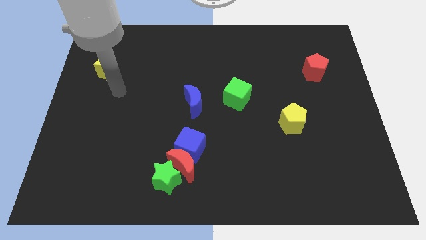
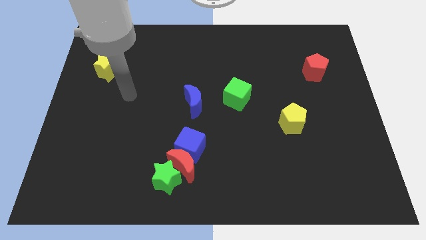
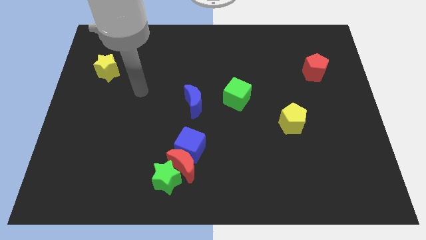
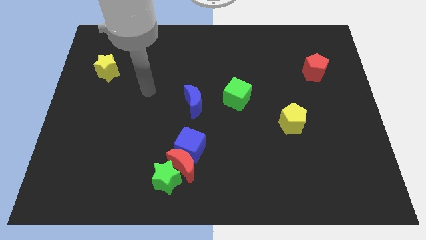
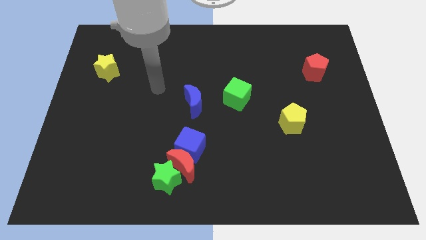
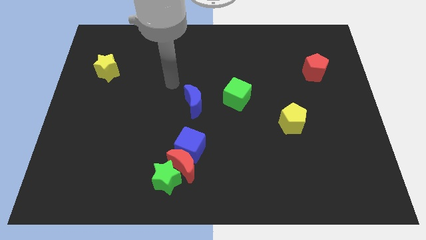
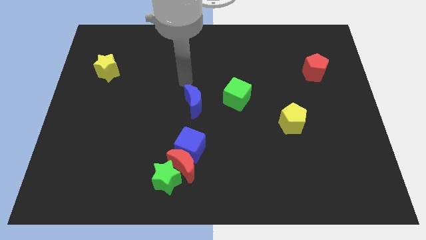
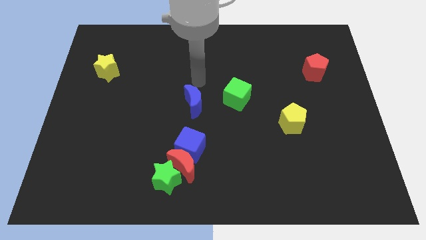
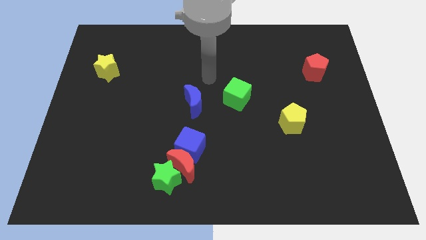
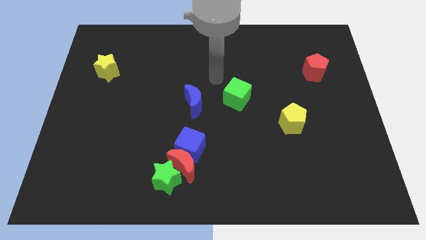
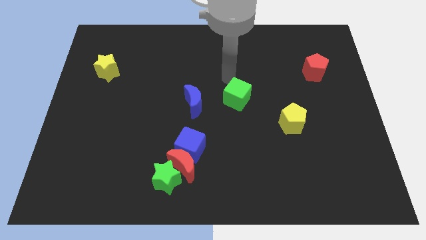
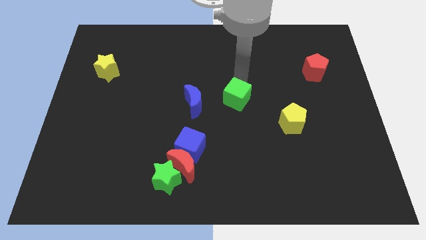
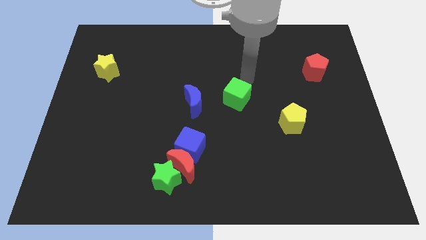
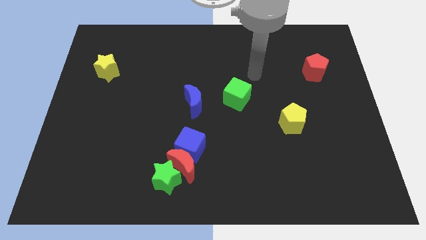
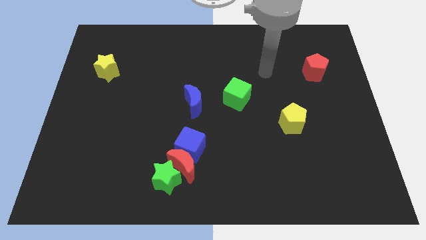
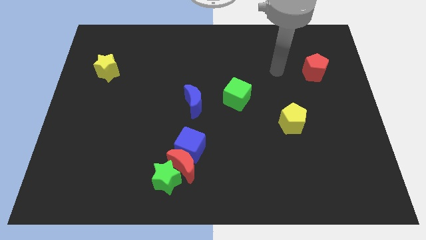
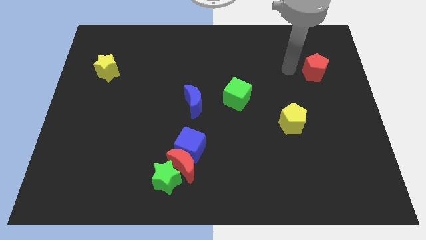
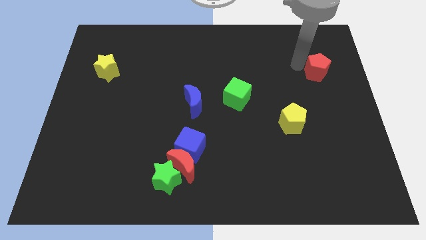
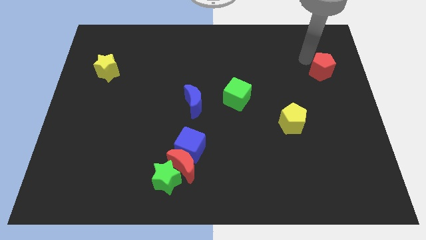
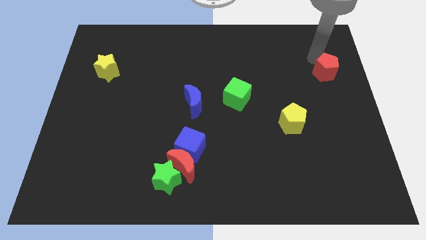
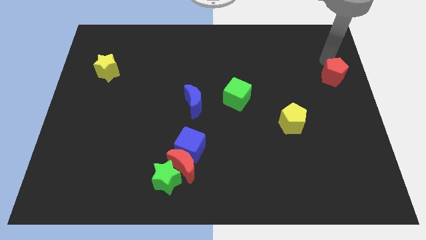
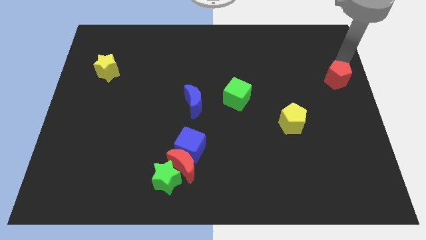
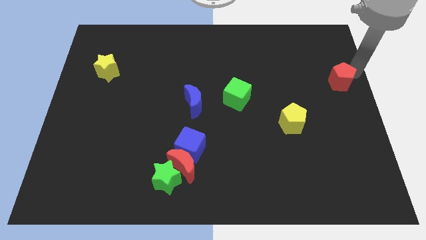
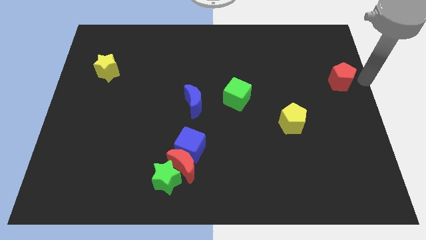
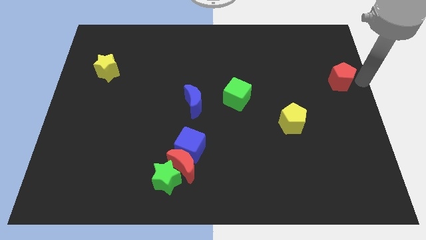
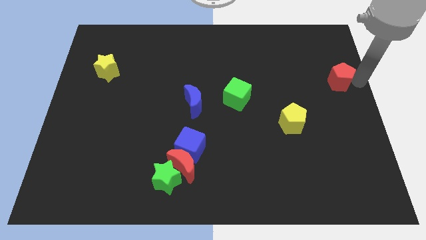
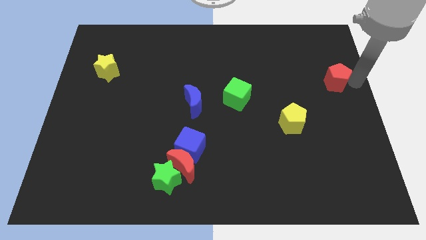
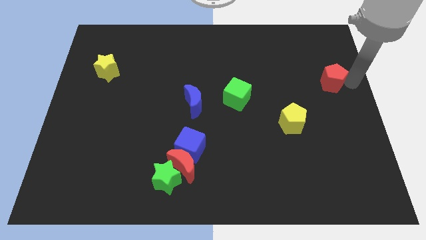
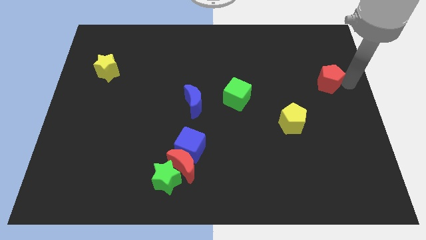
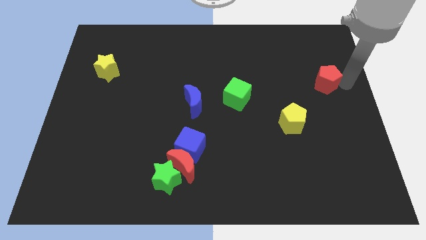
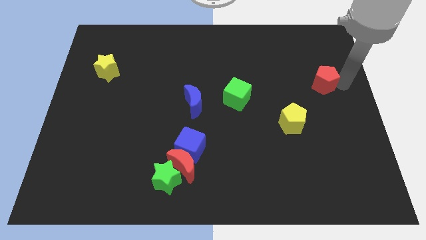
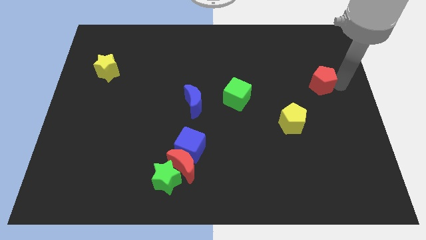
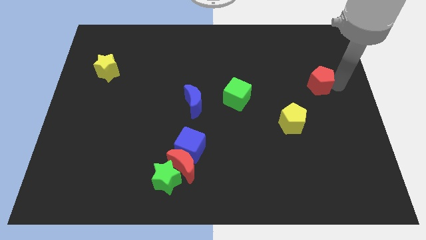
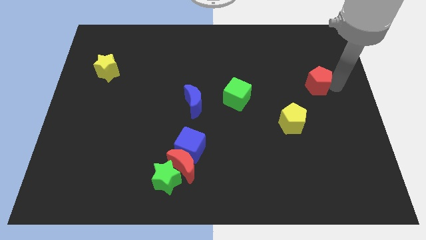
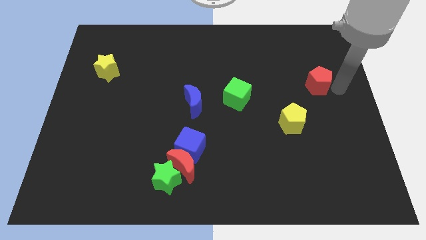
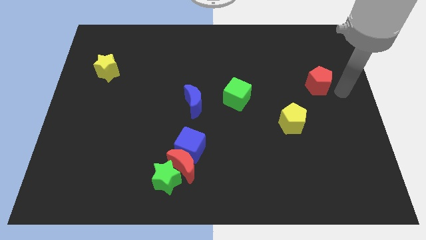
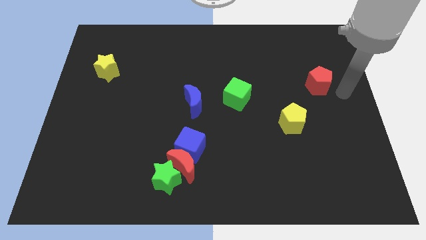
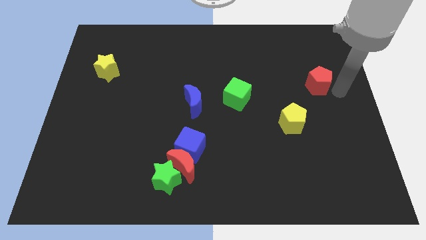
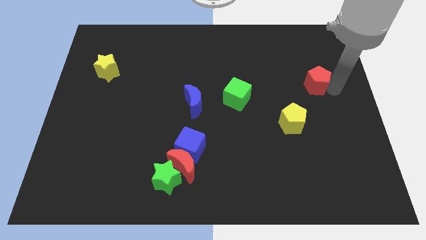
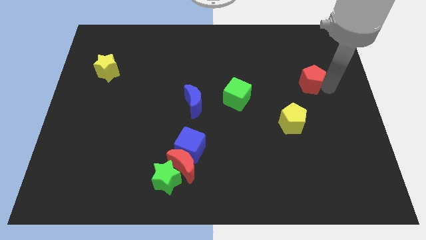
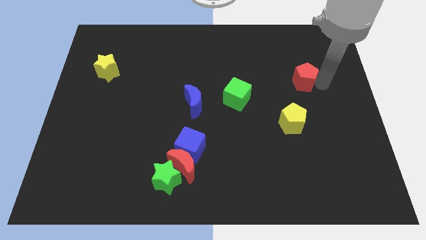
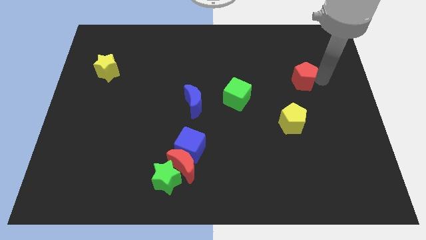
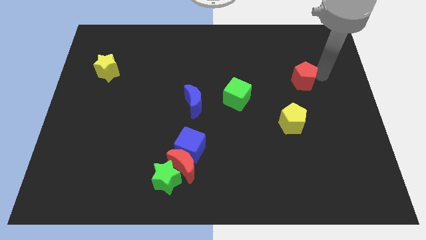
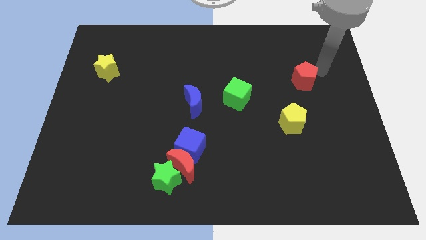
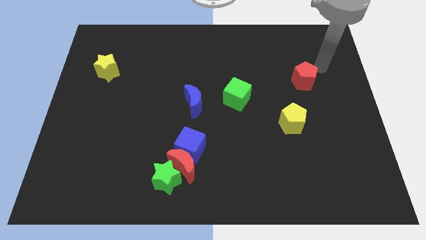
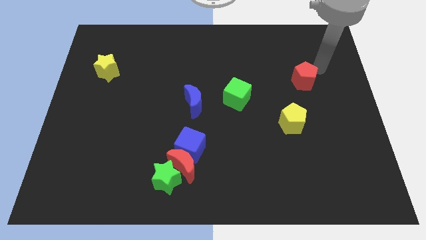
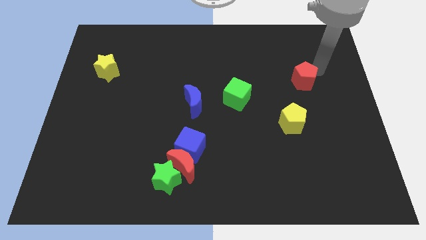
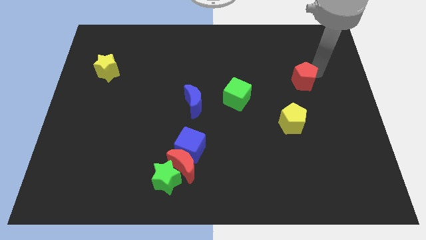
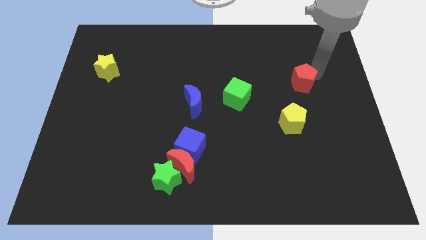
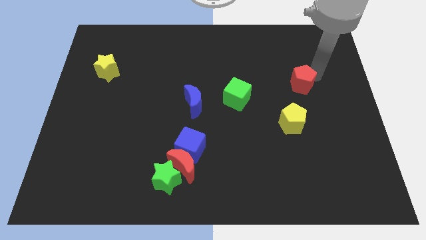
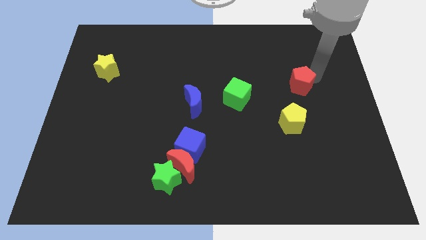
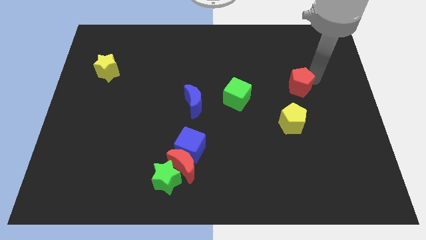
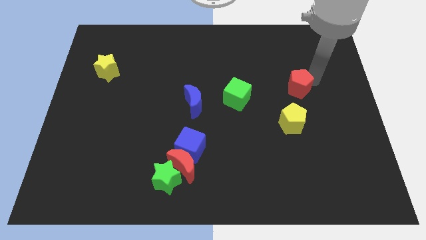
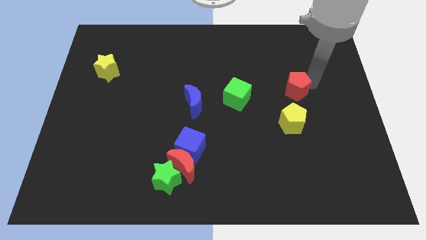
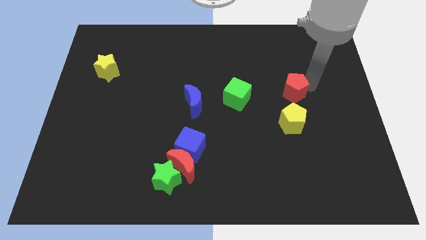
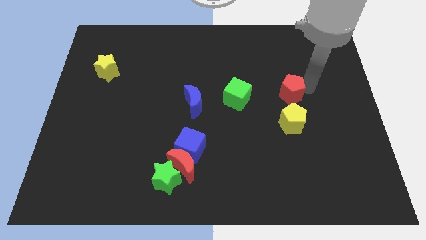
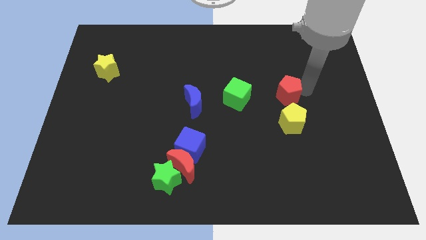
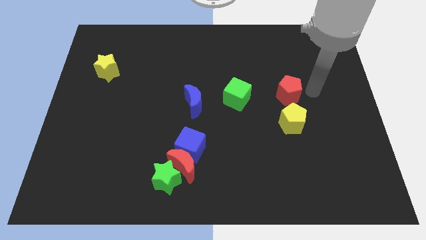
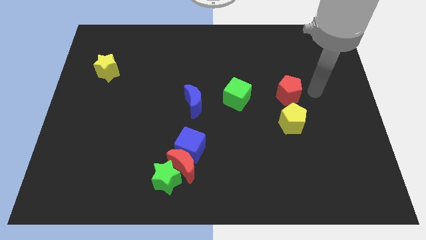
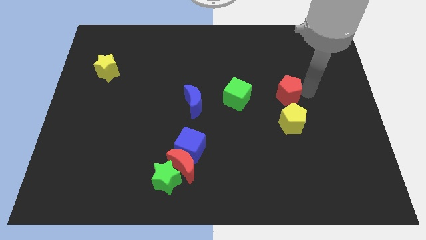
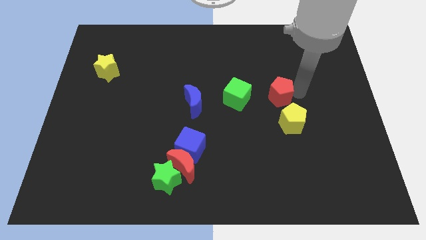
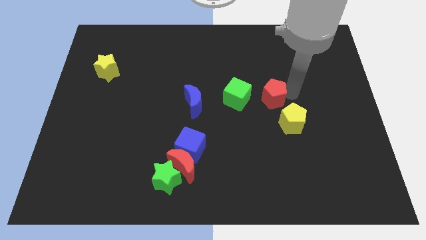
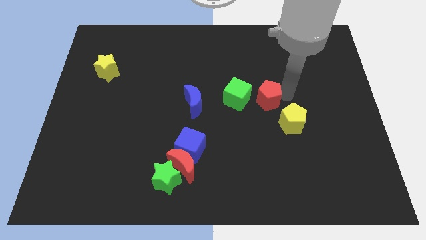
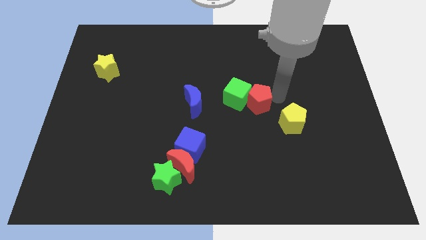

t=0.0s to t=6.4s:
push the red pentagon towards the green cube

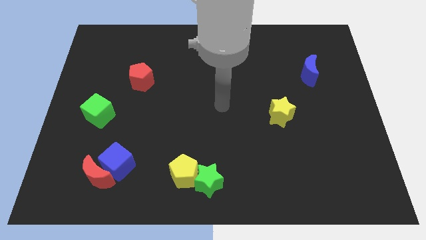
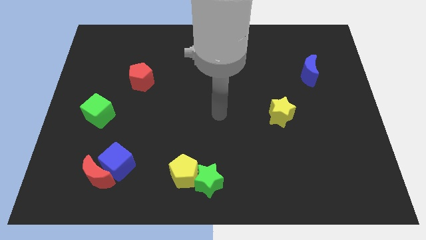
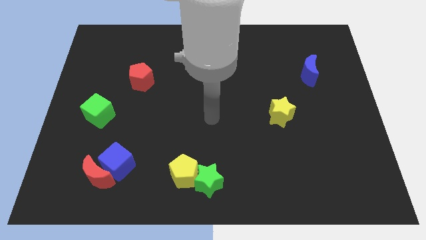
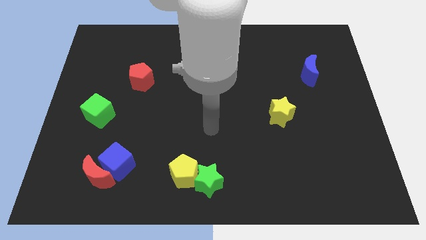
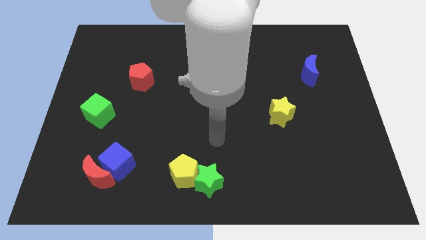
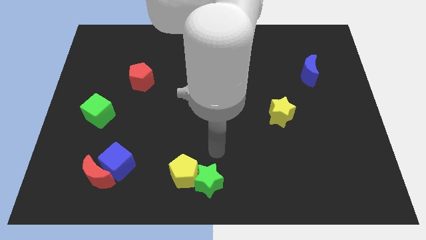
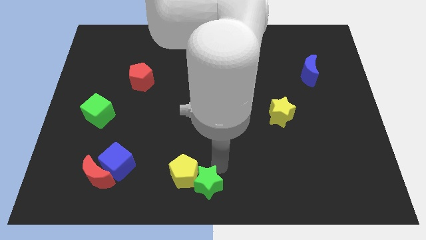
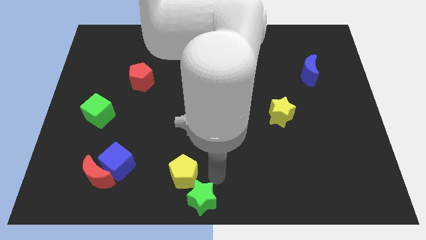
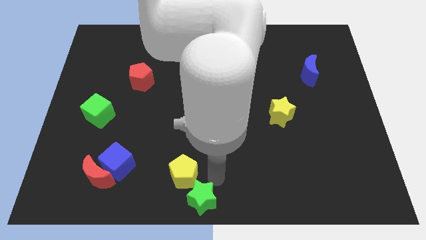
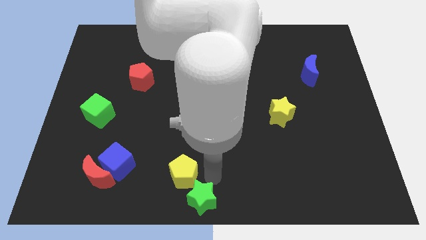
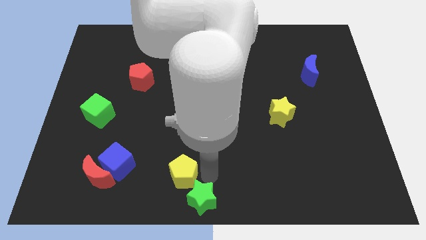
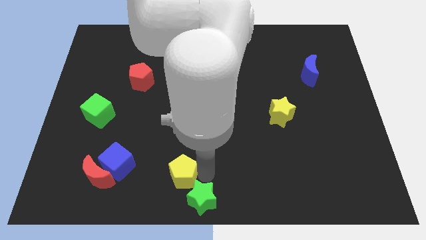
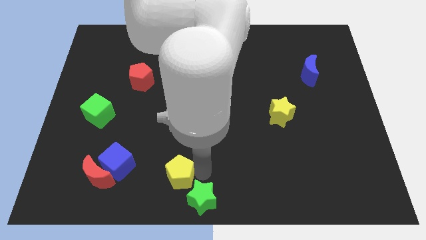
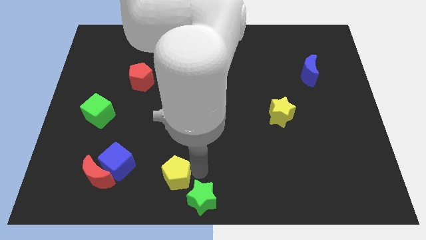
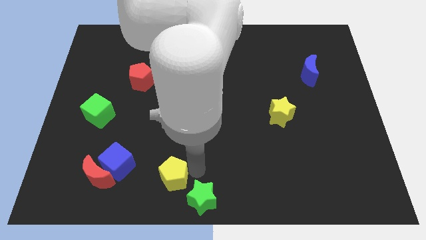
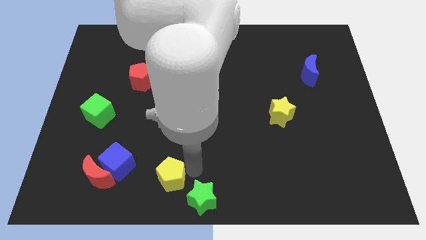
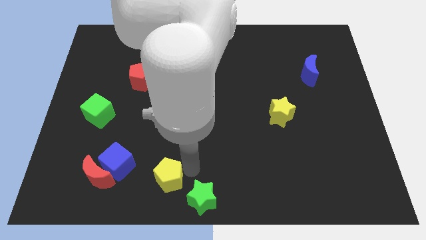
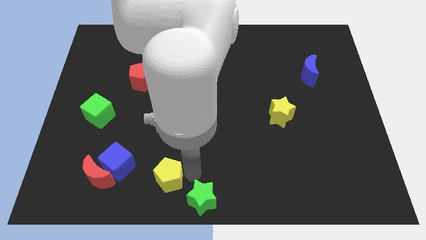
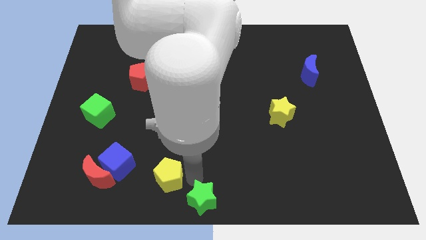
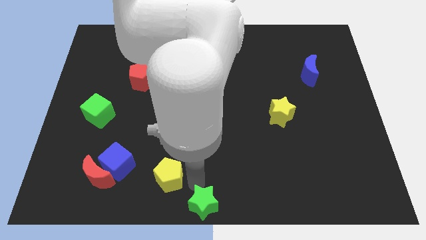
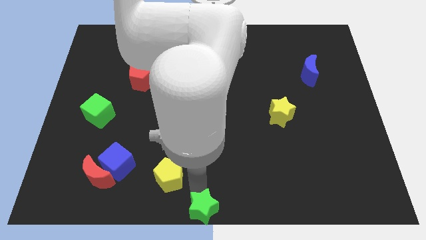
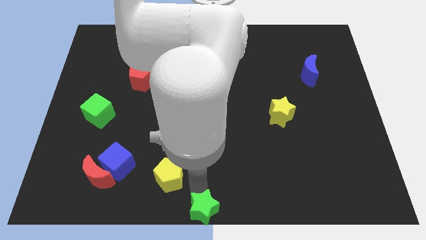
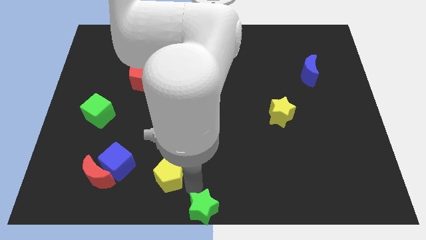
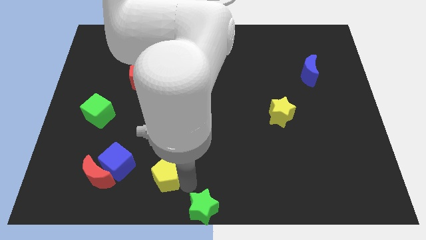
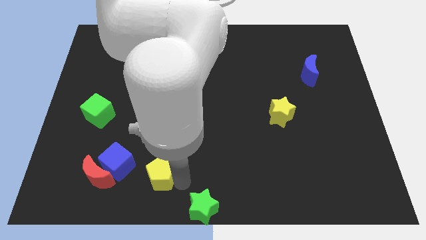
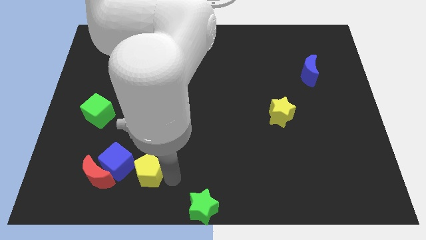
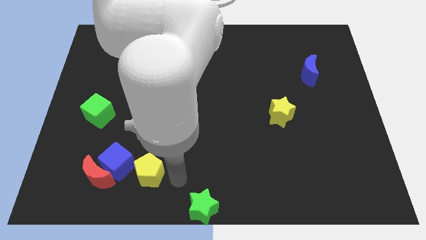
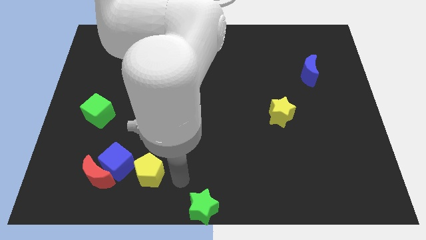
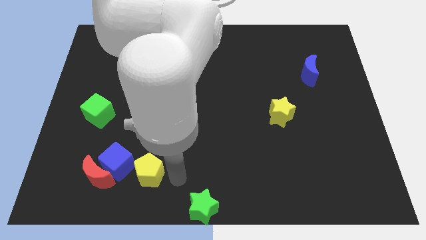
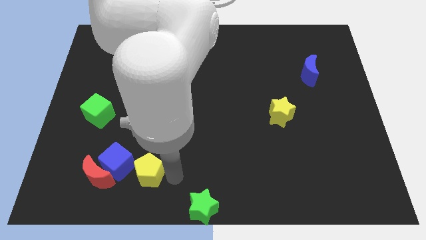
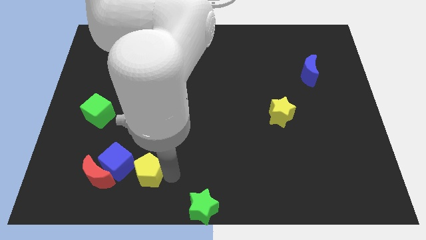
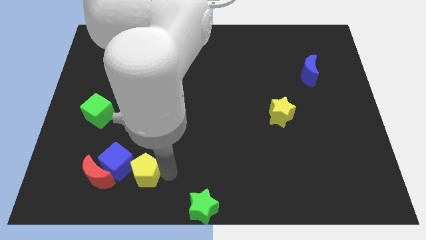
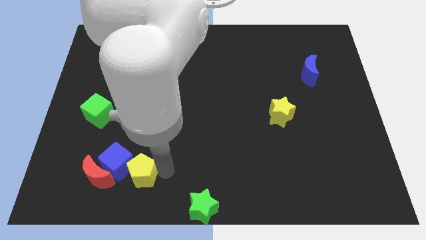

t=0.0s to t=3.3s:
slide the yellow pentagon towards the blue cube
